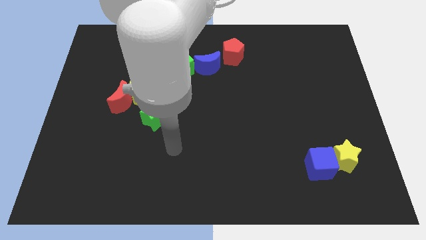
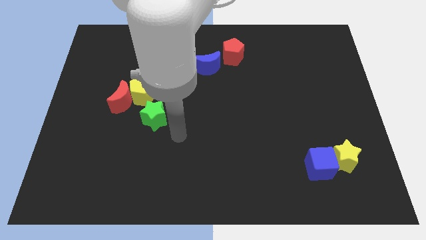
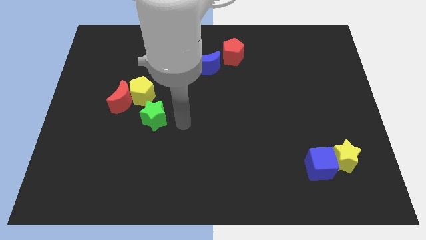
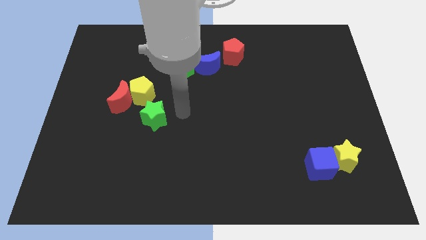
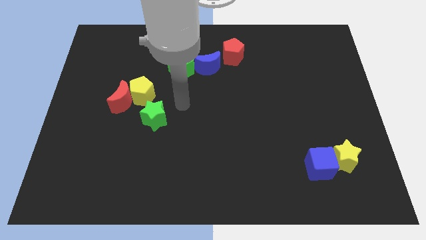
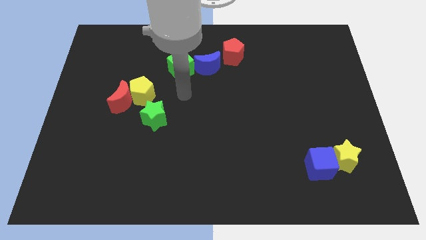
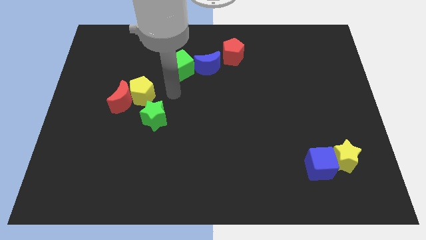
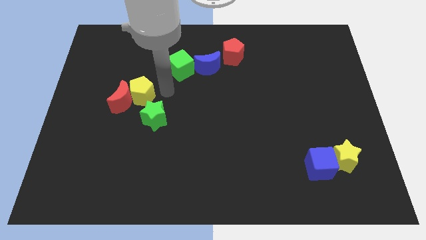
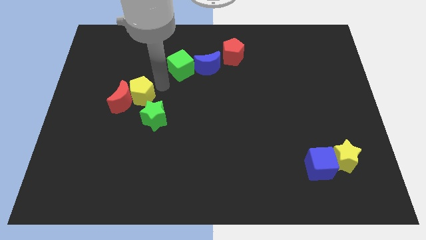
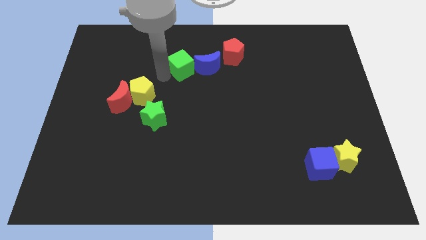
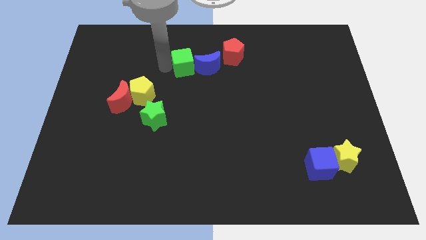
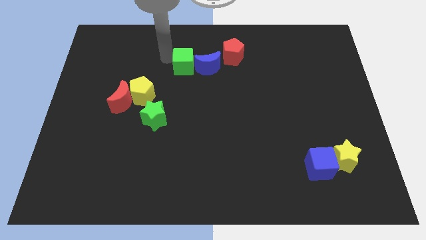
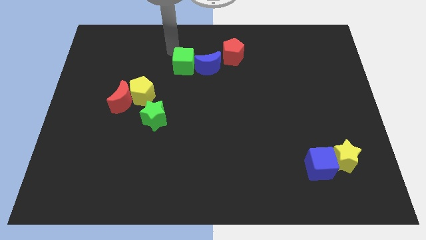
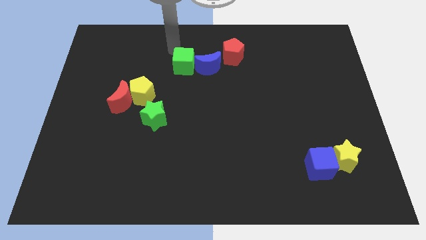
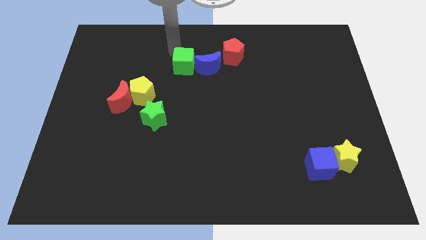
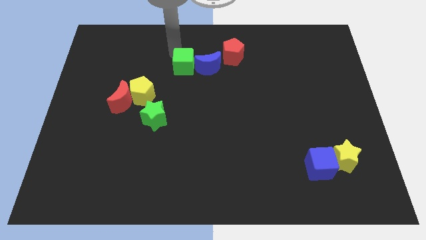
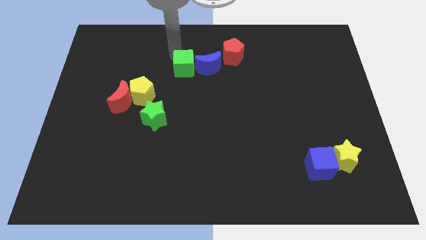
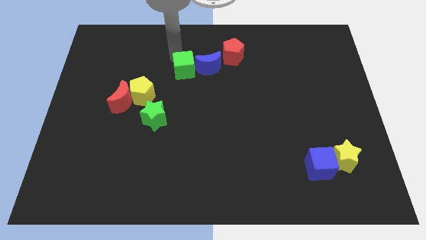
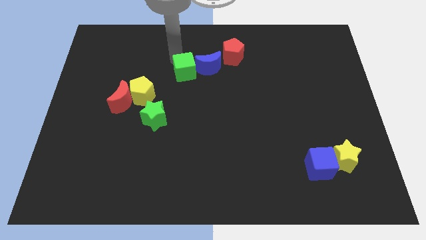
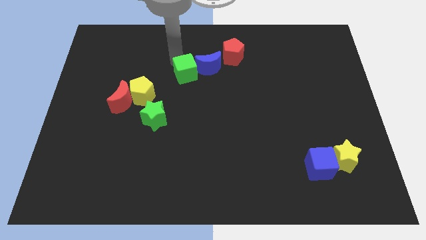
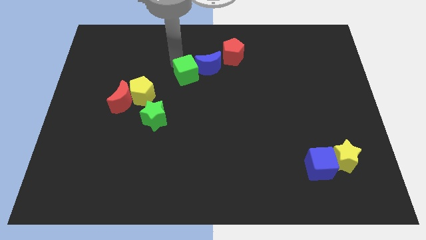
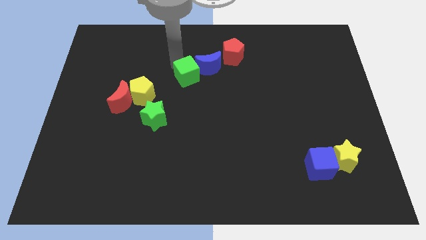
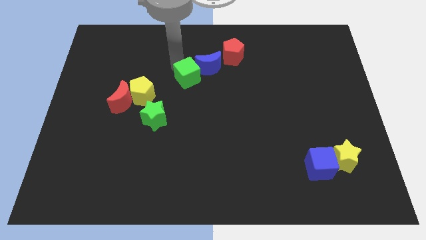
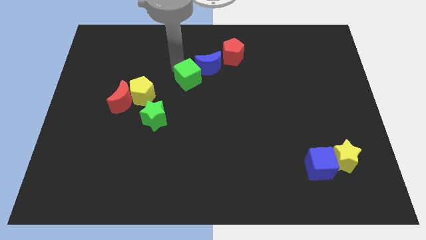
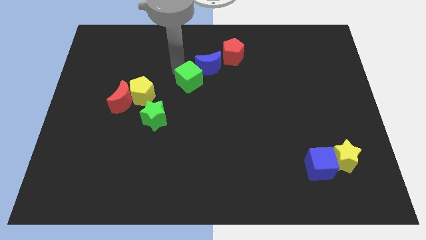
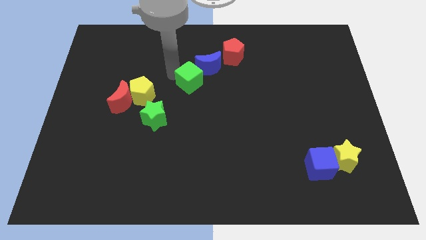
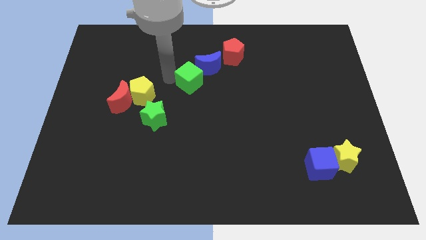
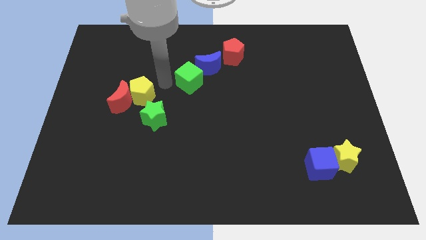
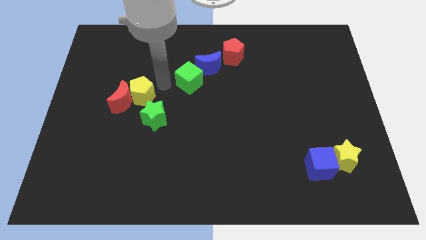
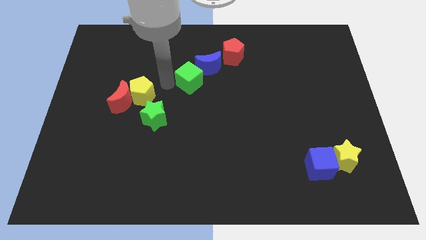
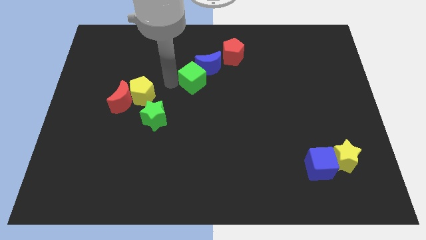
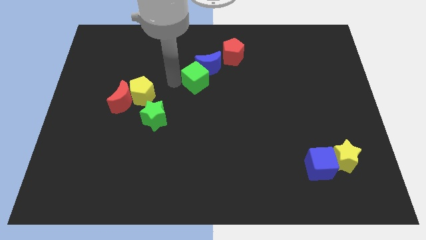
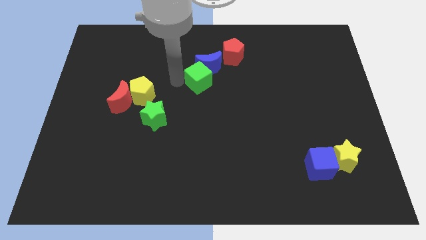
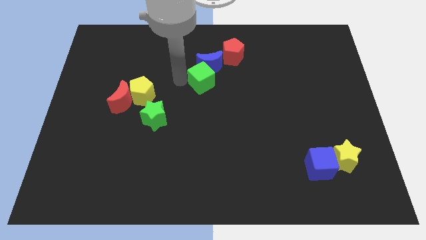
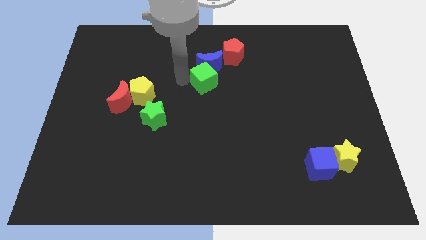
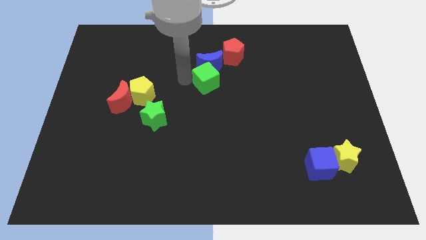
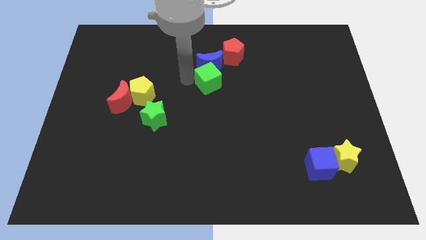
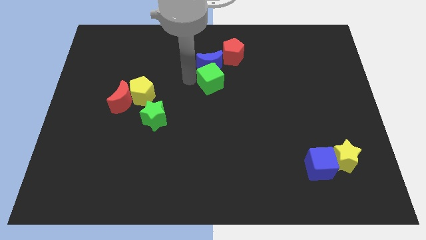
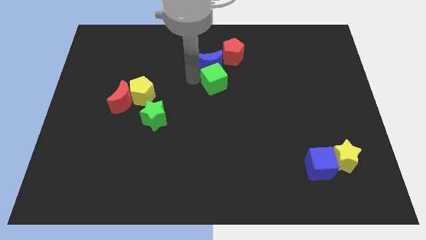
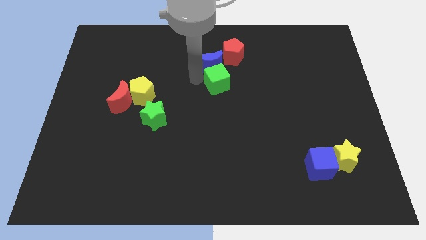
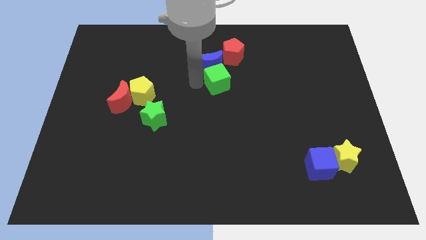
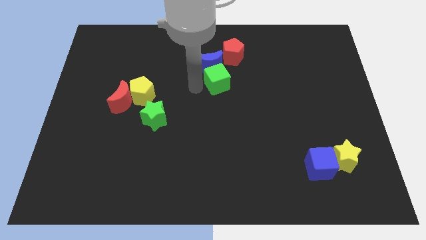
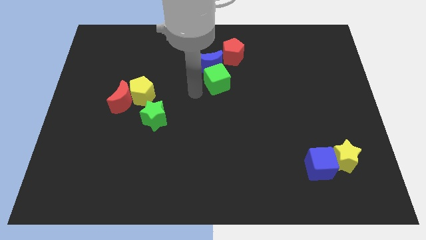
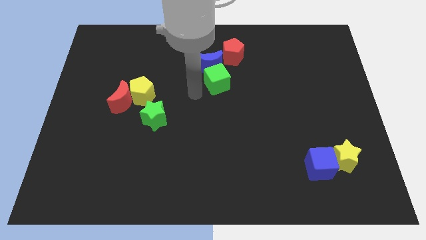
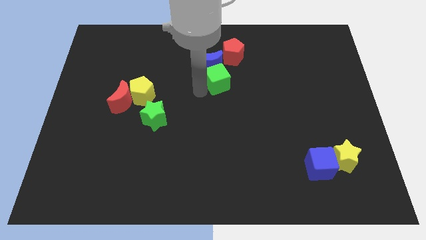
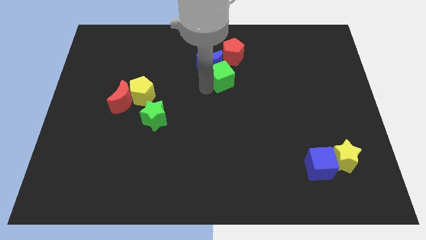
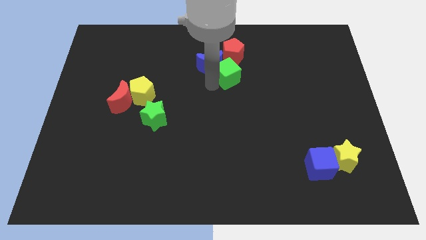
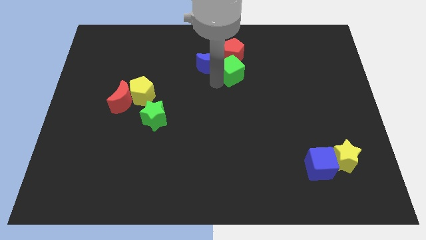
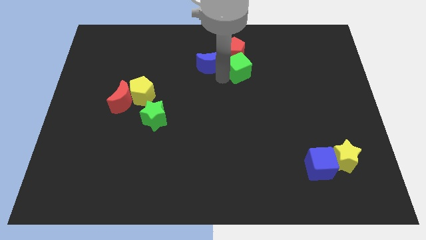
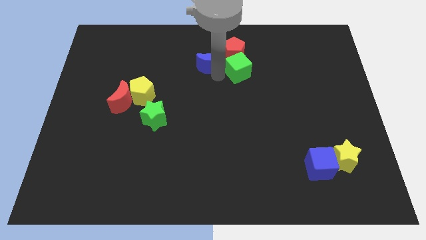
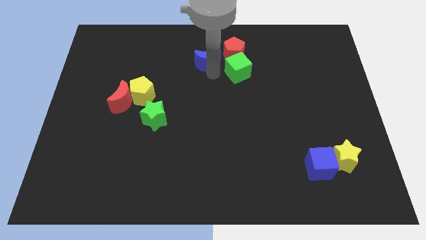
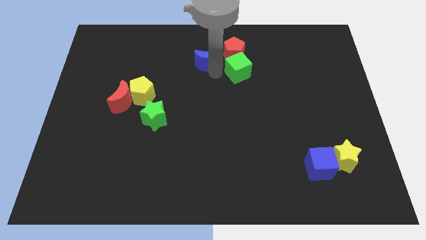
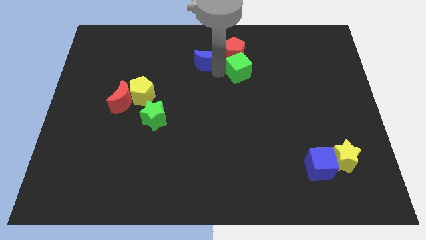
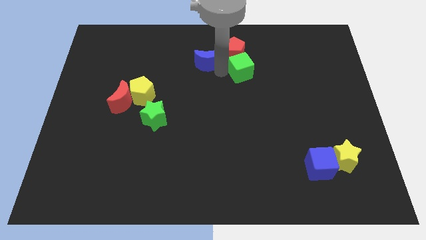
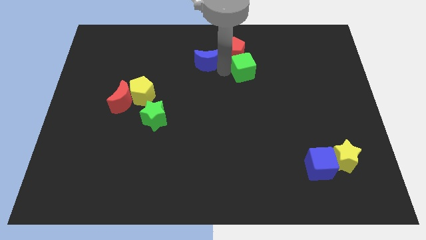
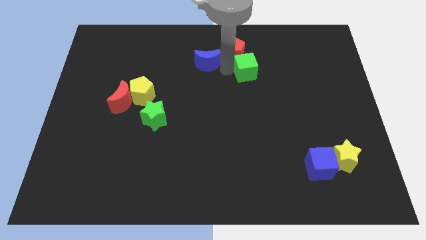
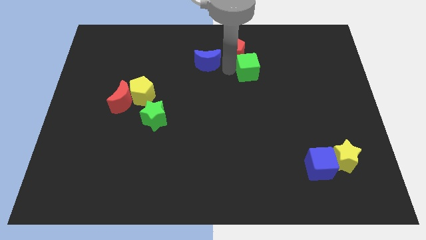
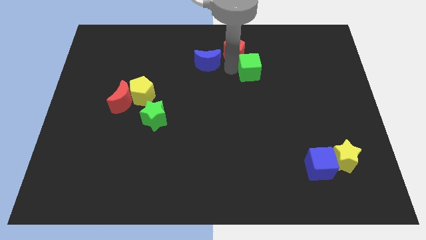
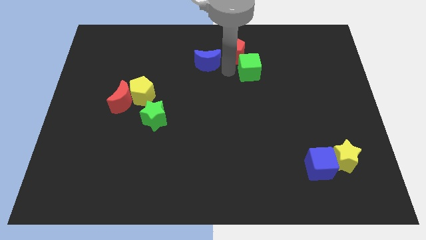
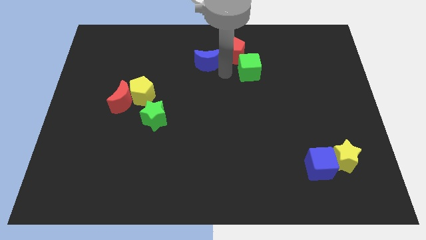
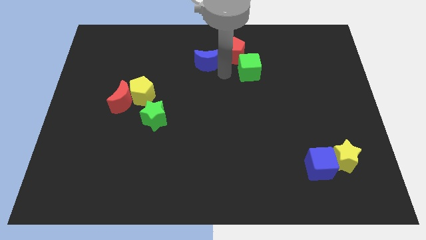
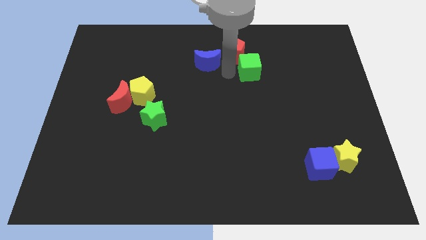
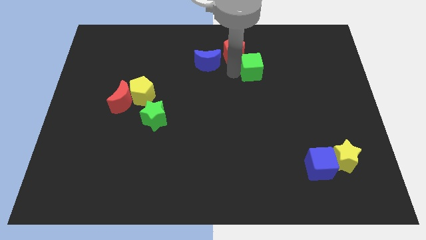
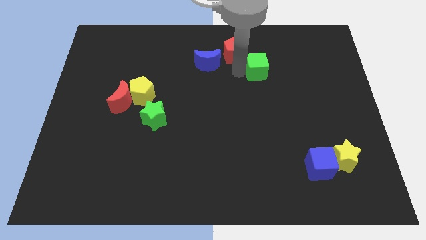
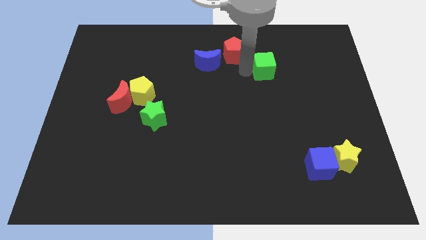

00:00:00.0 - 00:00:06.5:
slide the green cube to the right

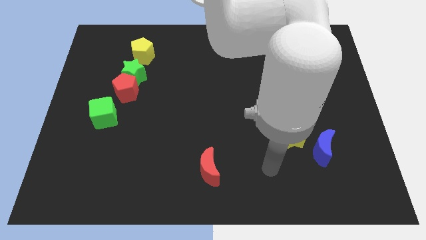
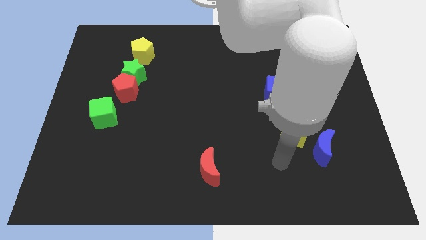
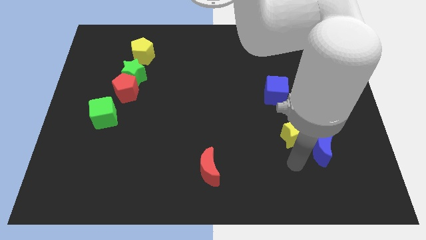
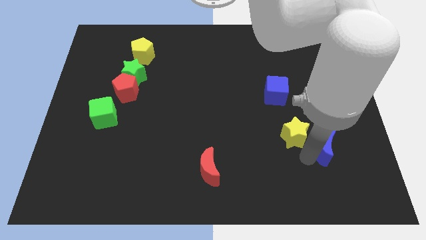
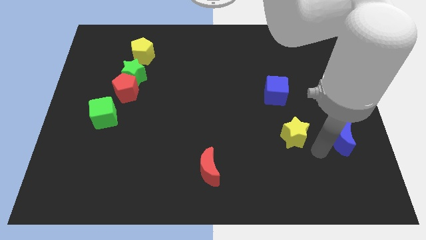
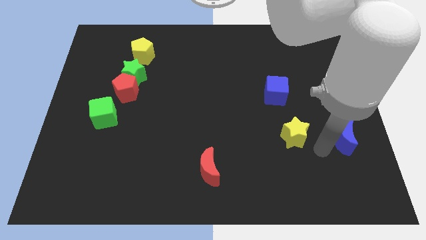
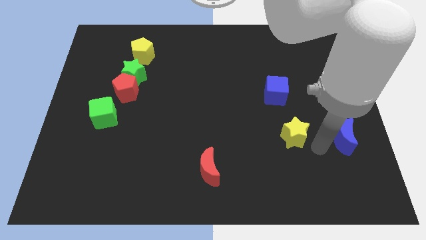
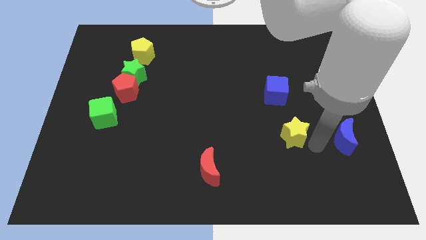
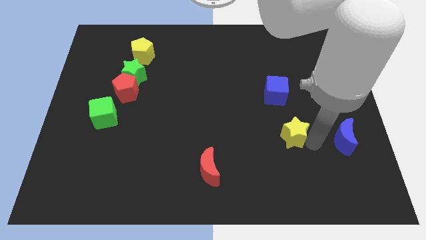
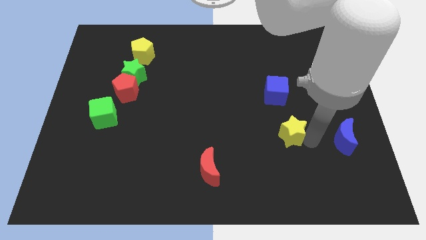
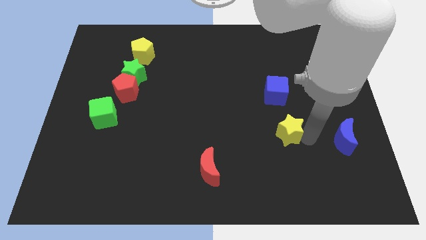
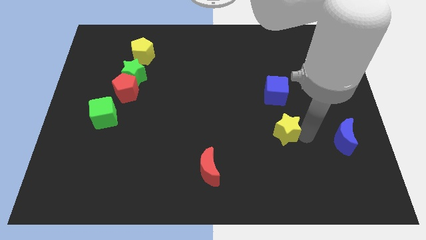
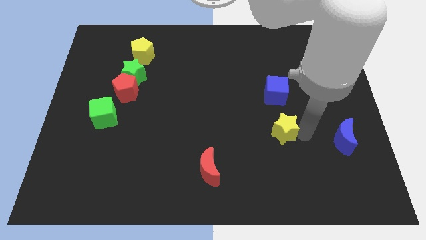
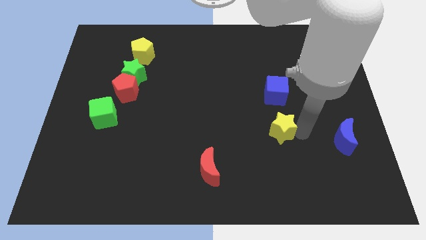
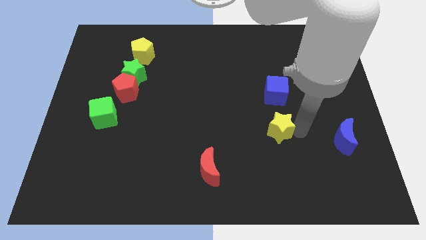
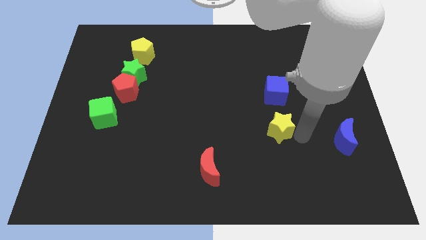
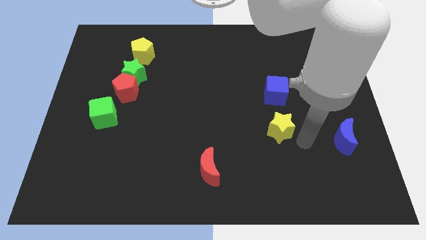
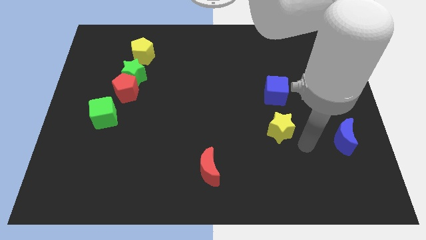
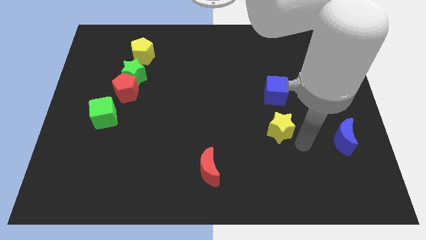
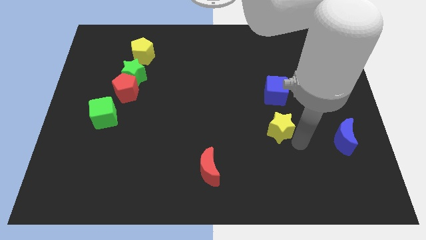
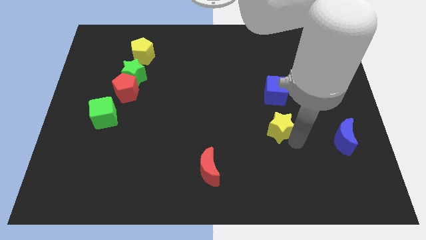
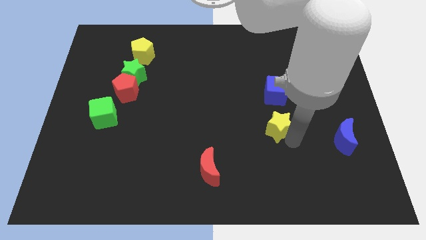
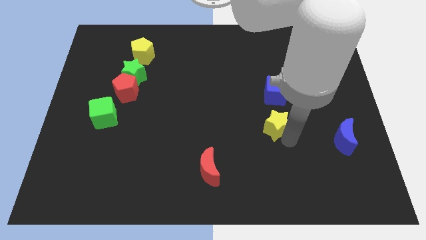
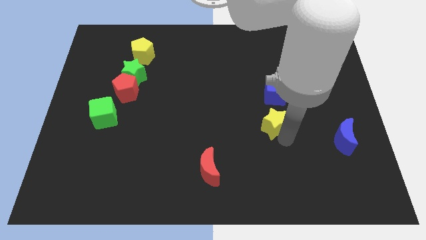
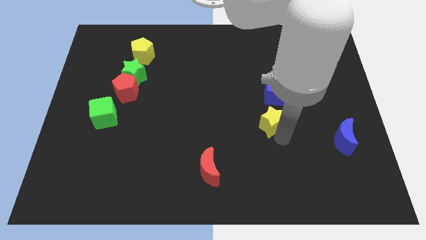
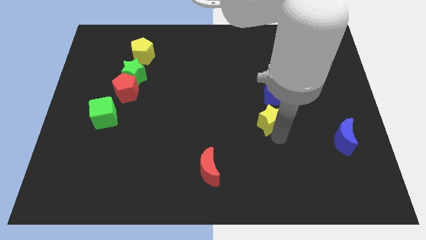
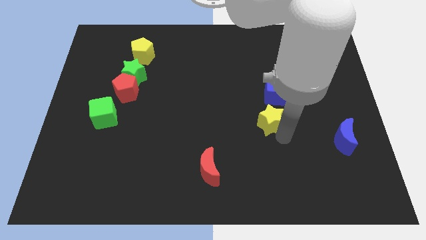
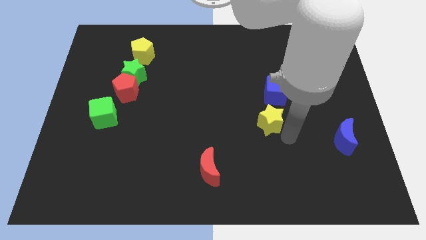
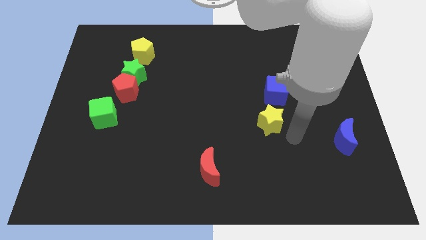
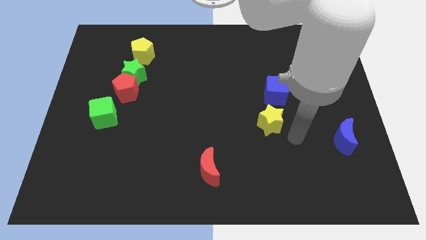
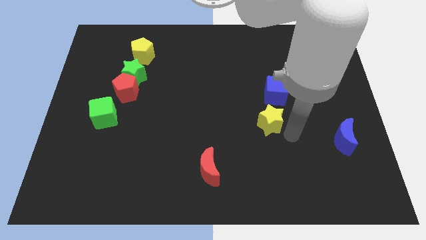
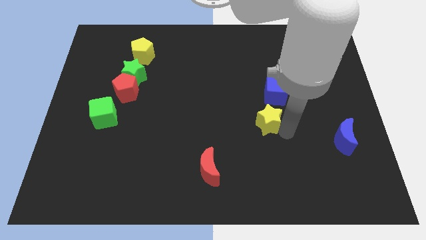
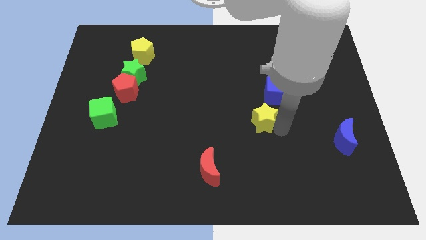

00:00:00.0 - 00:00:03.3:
slightly move the yellow star diagonally upwards and to the left
